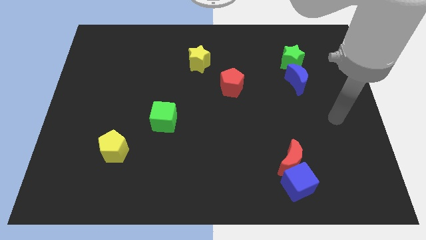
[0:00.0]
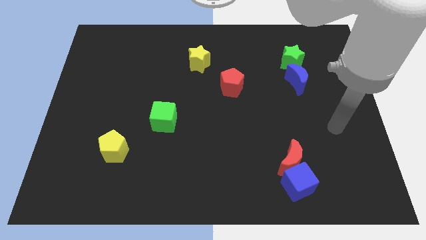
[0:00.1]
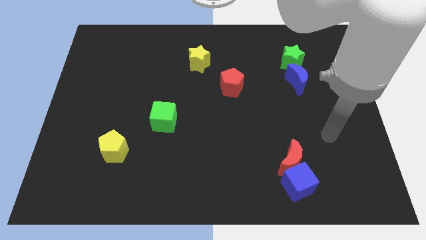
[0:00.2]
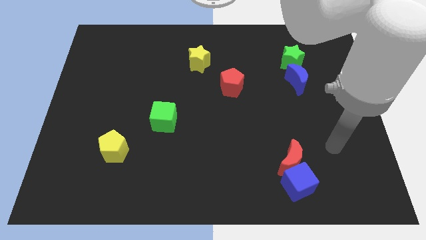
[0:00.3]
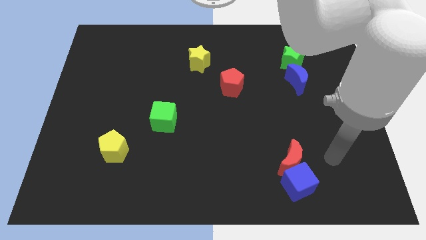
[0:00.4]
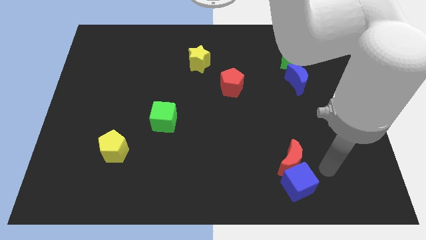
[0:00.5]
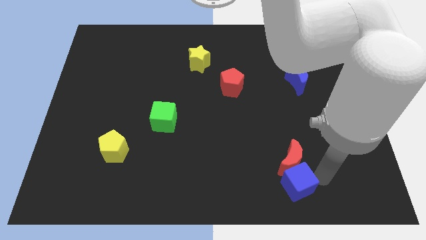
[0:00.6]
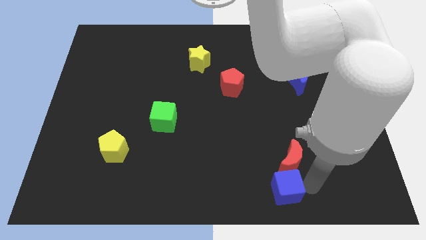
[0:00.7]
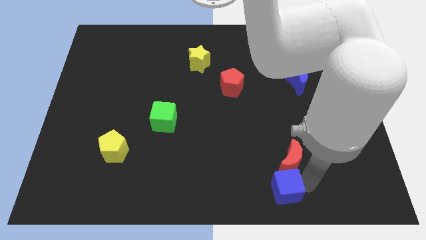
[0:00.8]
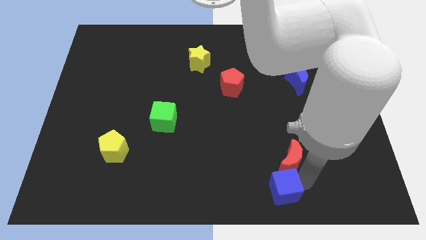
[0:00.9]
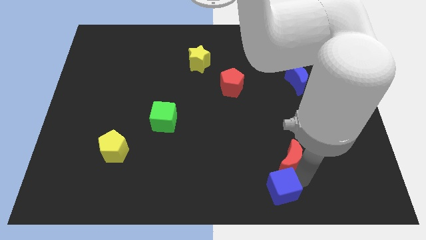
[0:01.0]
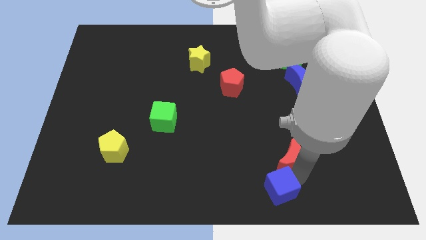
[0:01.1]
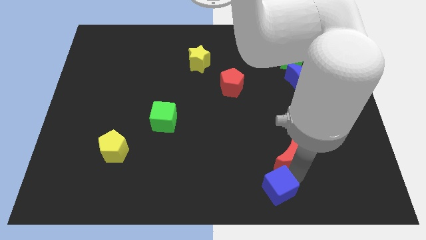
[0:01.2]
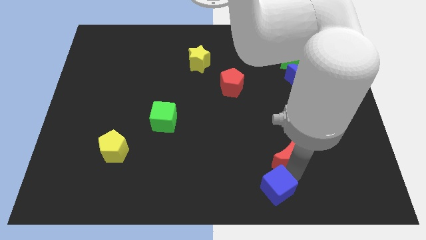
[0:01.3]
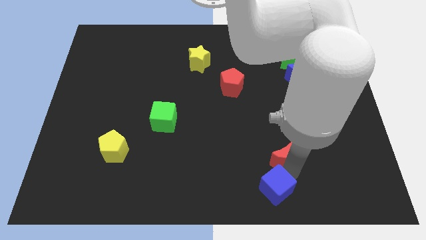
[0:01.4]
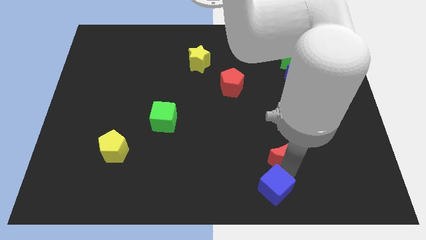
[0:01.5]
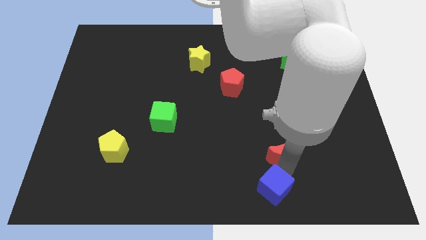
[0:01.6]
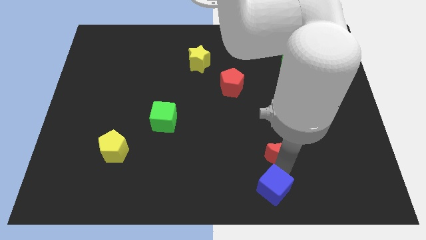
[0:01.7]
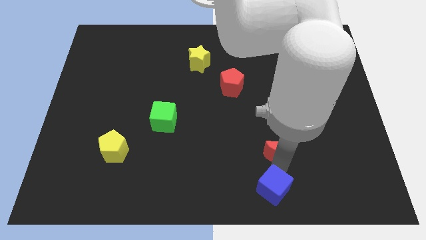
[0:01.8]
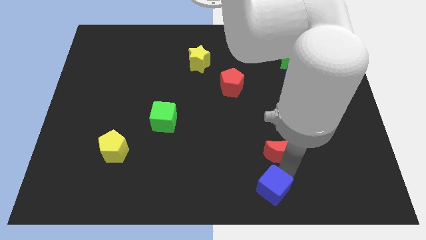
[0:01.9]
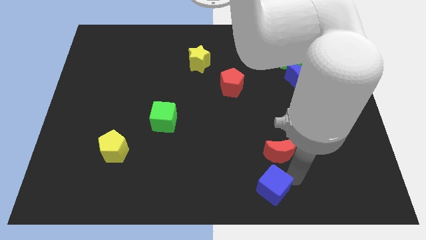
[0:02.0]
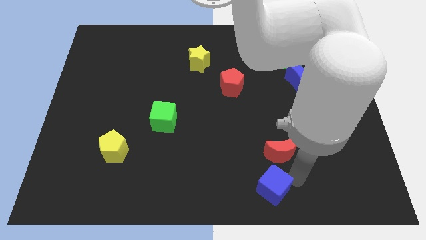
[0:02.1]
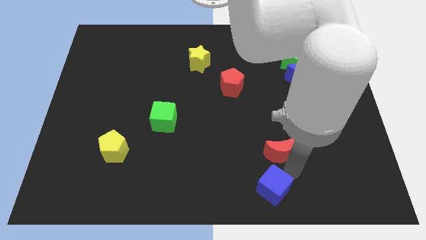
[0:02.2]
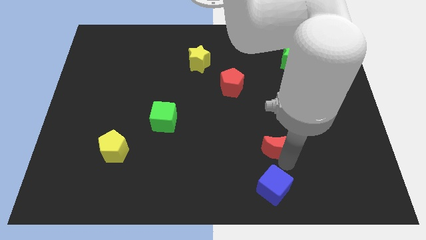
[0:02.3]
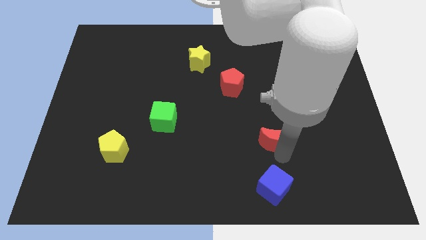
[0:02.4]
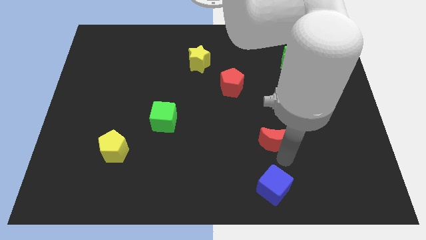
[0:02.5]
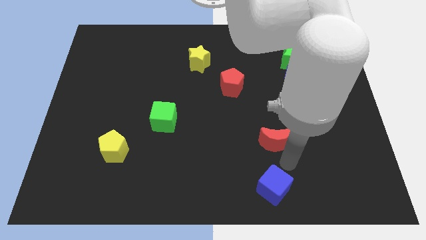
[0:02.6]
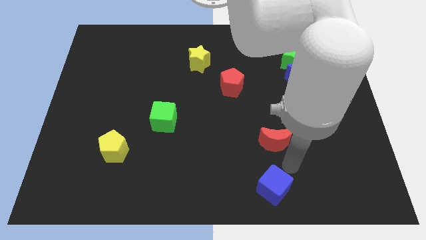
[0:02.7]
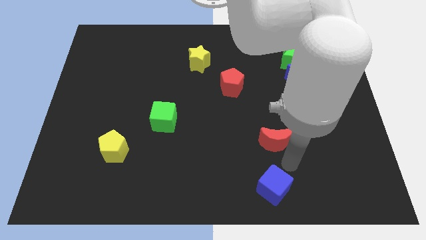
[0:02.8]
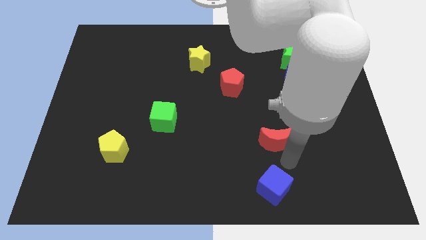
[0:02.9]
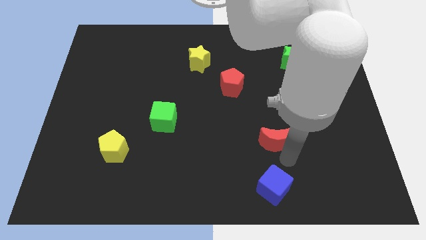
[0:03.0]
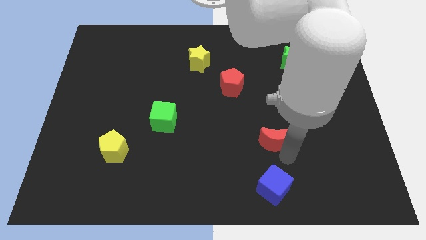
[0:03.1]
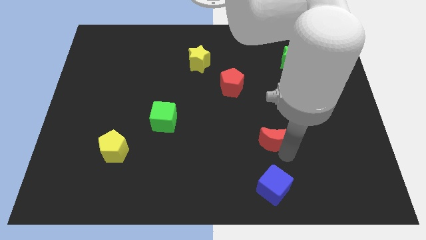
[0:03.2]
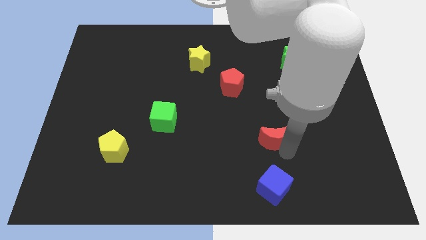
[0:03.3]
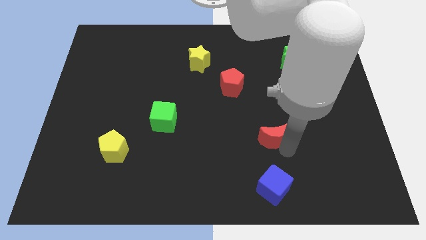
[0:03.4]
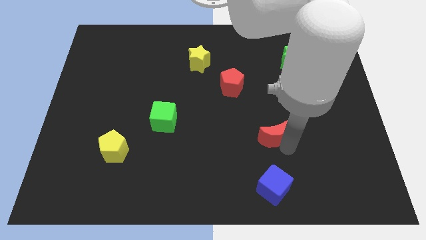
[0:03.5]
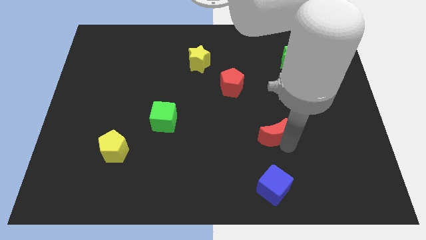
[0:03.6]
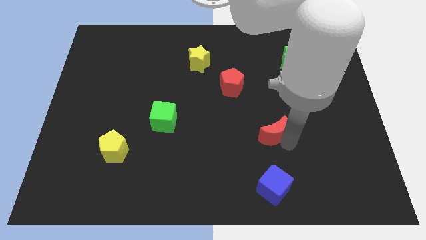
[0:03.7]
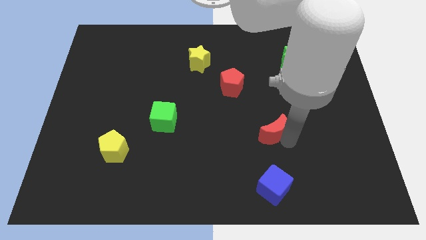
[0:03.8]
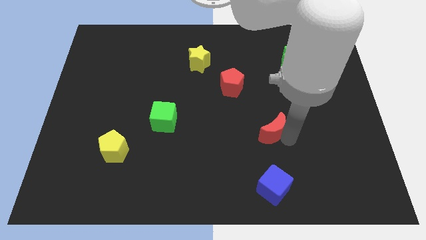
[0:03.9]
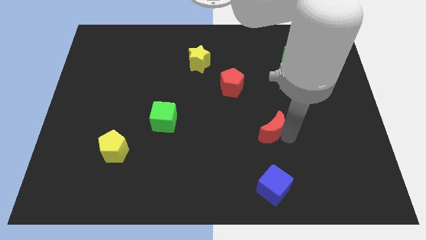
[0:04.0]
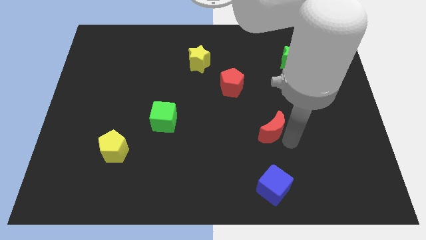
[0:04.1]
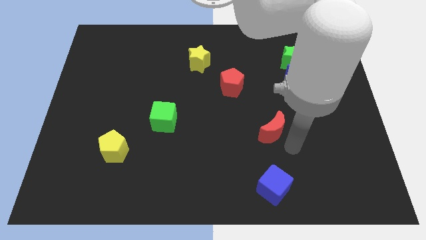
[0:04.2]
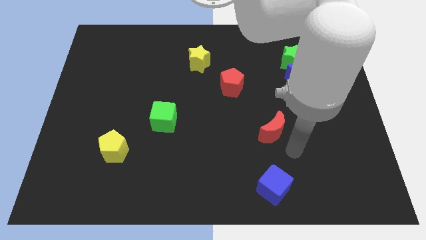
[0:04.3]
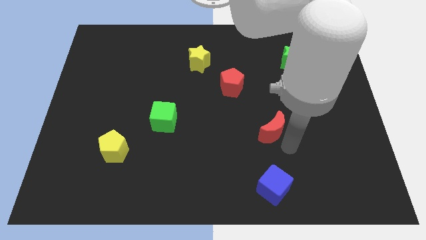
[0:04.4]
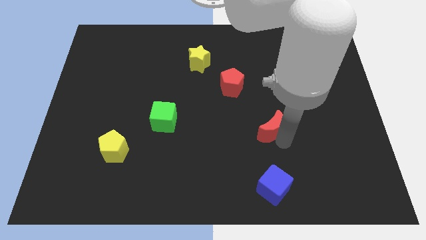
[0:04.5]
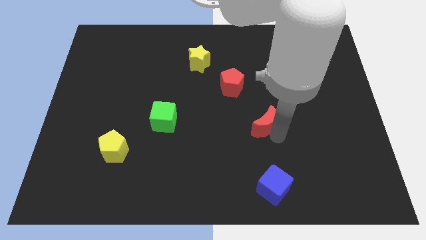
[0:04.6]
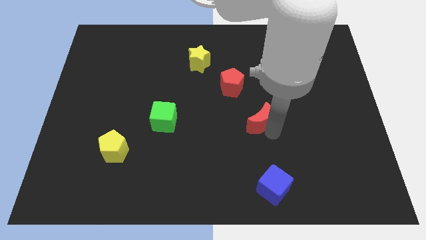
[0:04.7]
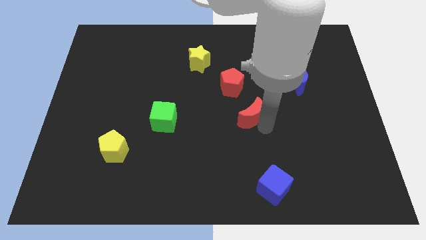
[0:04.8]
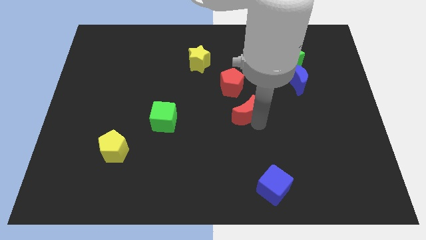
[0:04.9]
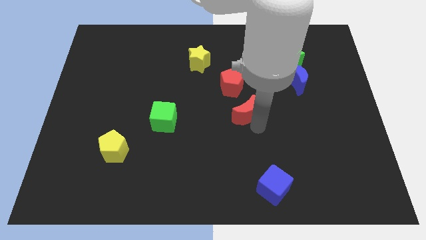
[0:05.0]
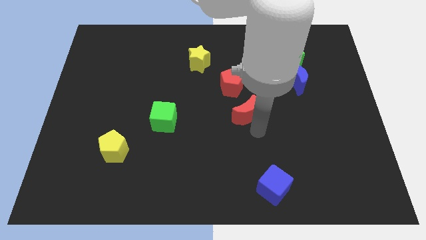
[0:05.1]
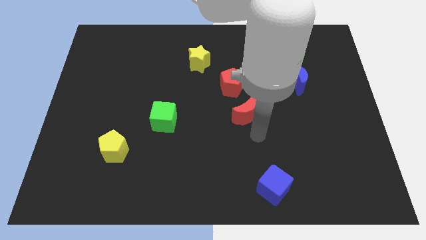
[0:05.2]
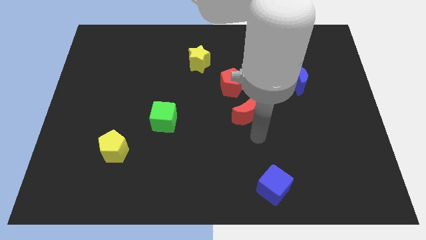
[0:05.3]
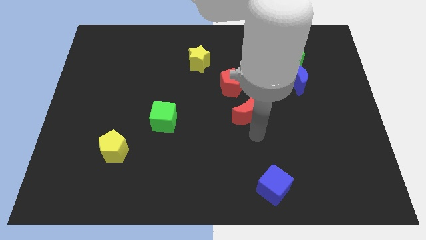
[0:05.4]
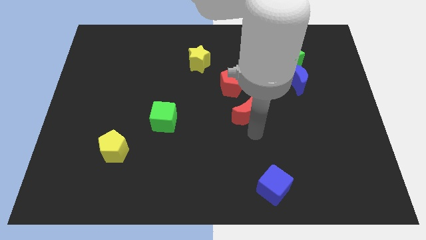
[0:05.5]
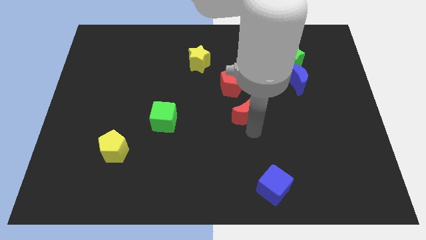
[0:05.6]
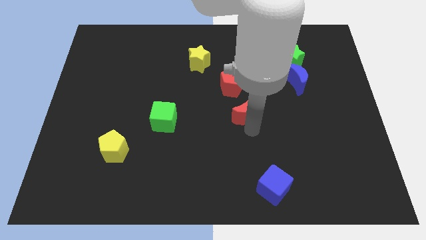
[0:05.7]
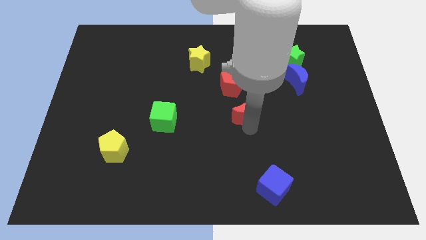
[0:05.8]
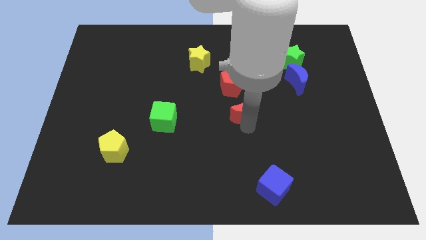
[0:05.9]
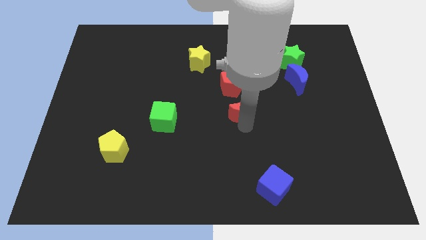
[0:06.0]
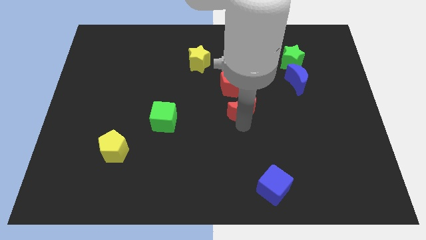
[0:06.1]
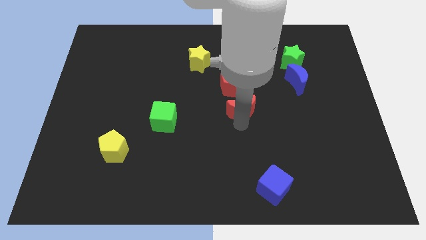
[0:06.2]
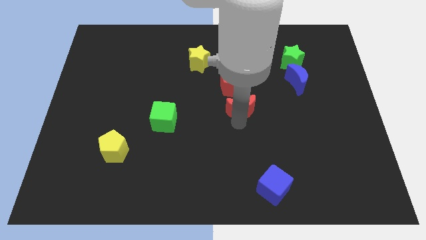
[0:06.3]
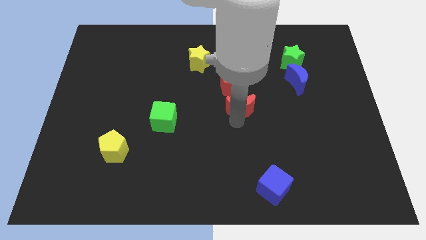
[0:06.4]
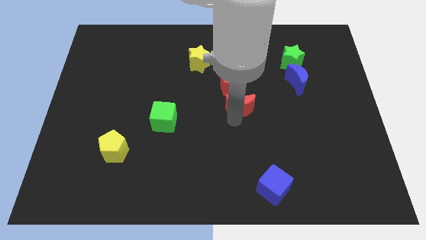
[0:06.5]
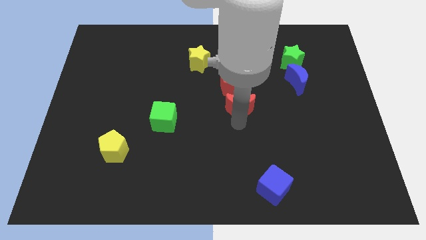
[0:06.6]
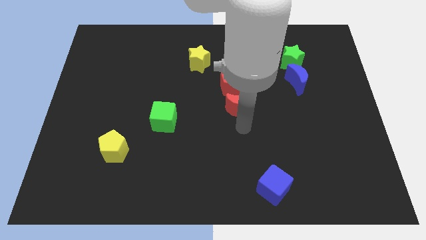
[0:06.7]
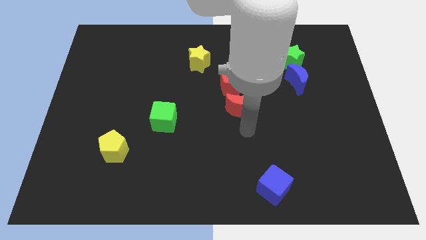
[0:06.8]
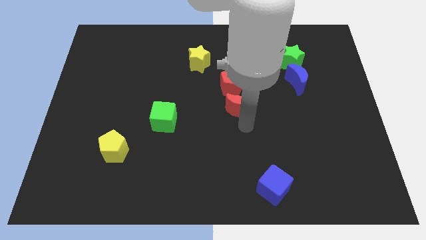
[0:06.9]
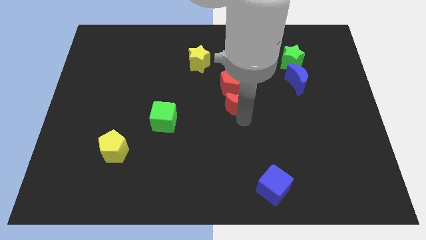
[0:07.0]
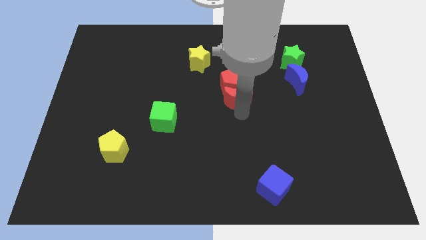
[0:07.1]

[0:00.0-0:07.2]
push the red moon close to the red pentagon
